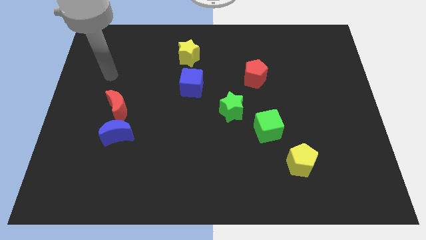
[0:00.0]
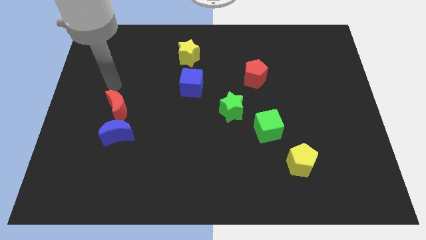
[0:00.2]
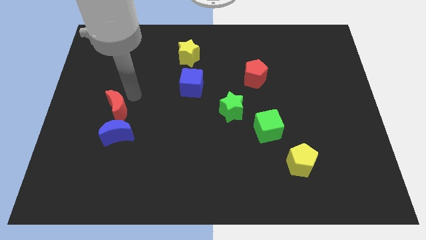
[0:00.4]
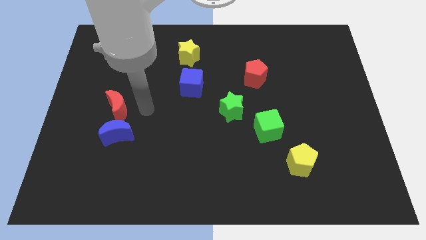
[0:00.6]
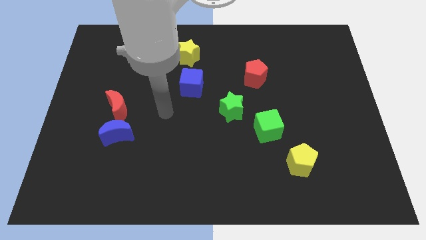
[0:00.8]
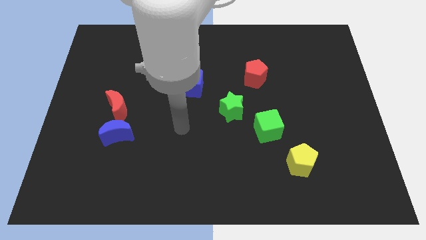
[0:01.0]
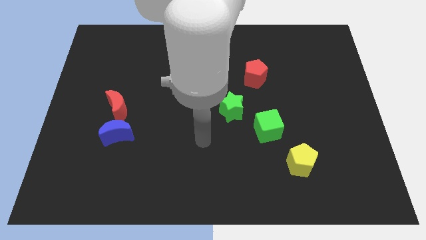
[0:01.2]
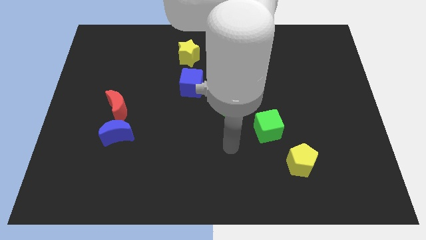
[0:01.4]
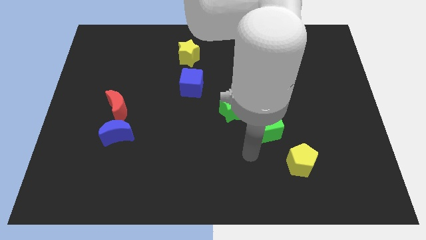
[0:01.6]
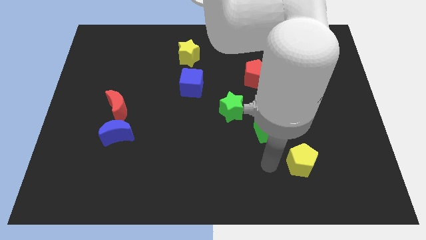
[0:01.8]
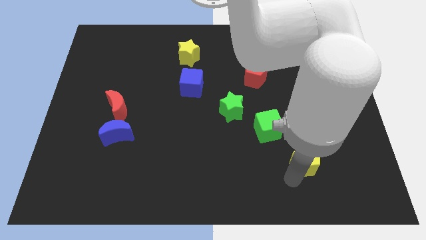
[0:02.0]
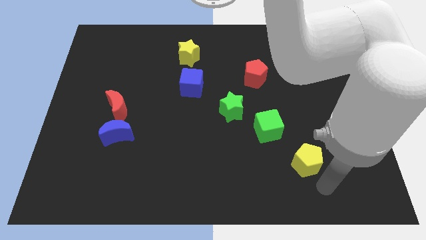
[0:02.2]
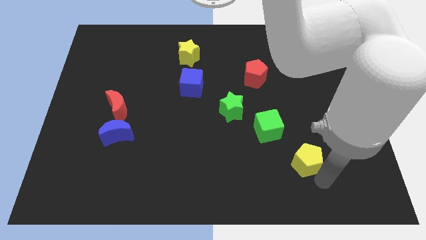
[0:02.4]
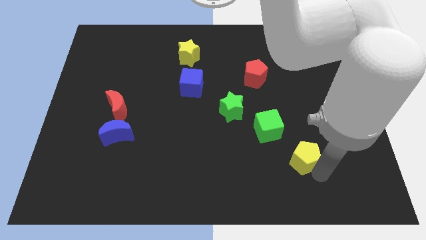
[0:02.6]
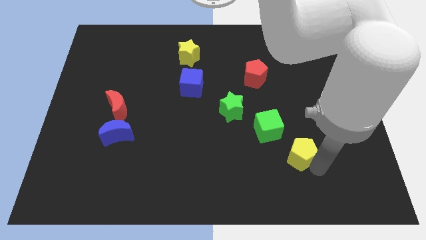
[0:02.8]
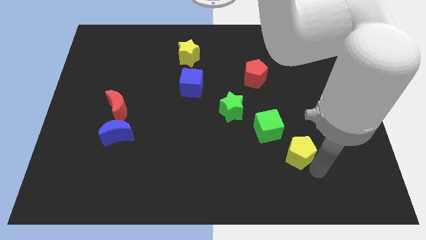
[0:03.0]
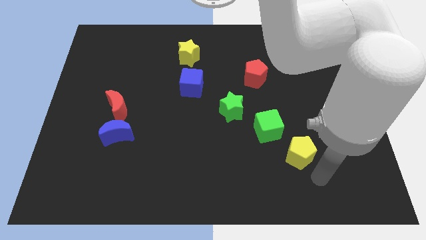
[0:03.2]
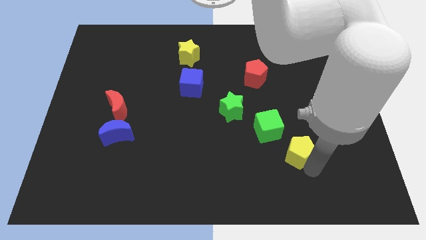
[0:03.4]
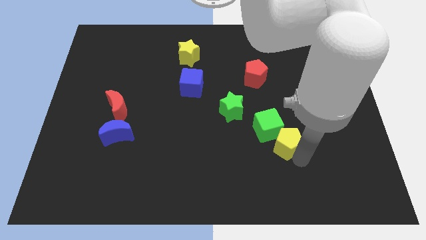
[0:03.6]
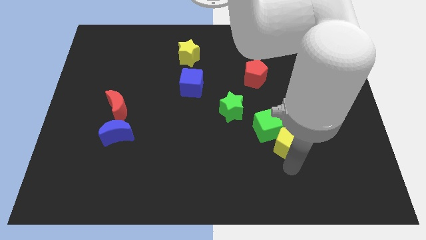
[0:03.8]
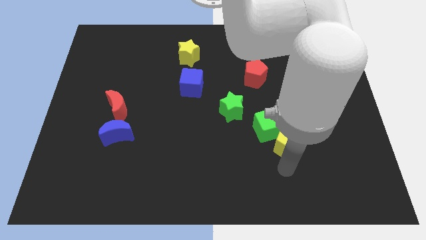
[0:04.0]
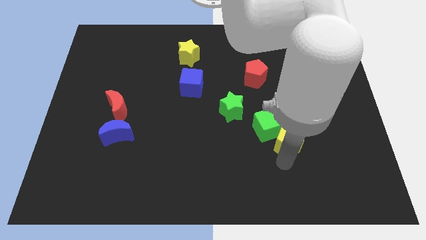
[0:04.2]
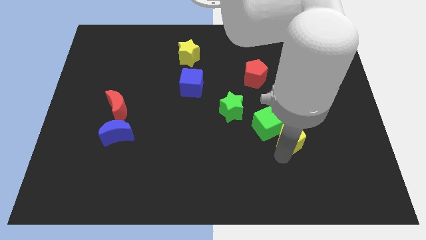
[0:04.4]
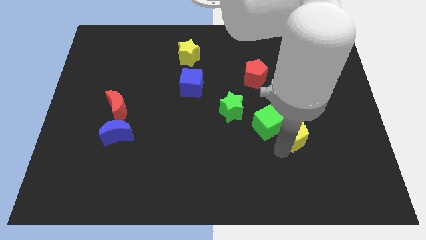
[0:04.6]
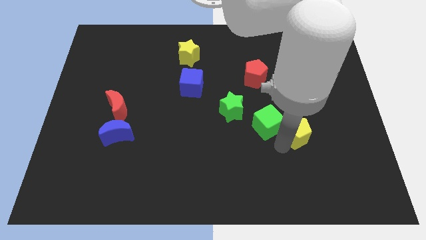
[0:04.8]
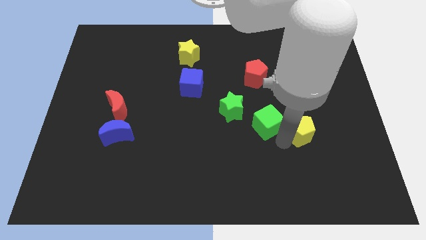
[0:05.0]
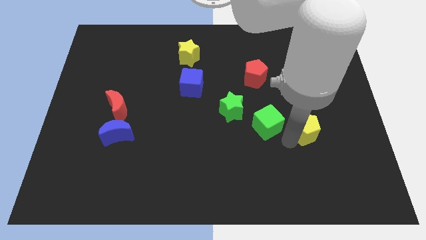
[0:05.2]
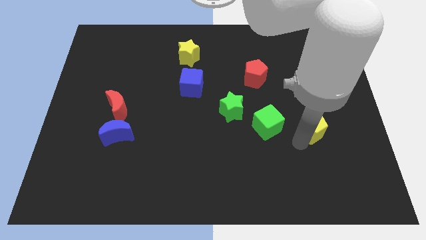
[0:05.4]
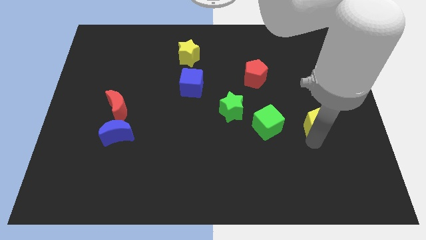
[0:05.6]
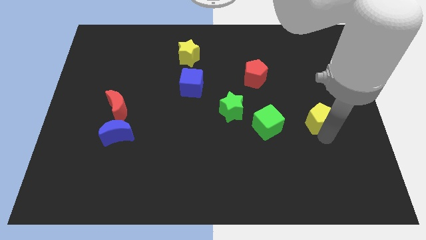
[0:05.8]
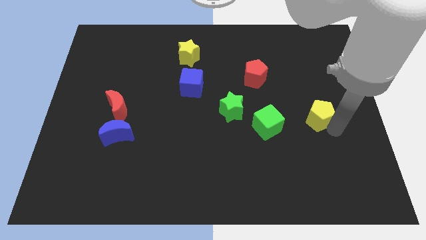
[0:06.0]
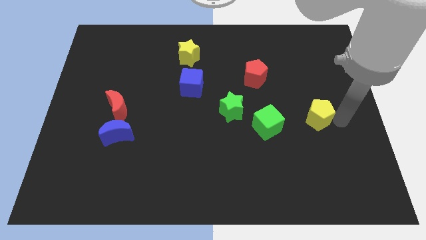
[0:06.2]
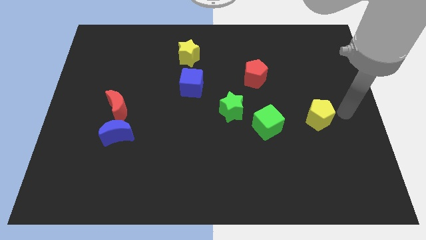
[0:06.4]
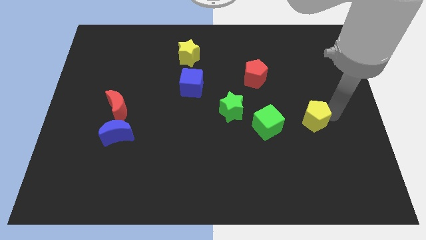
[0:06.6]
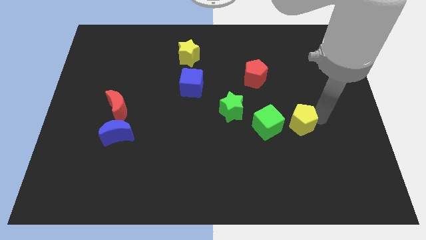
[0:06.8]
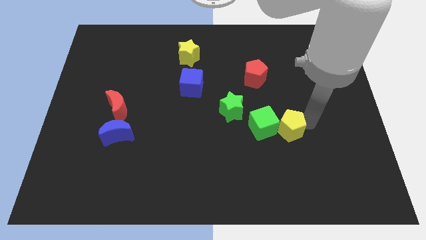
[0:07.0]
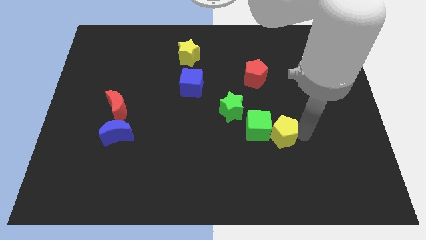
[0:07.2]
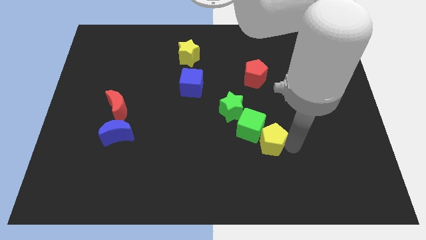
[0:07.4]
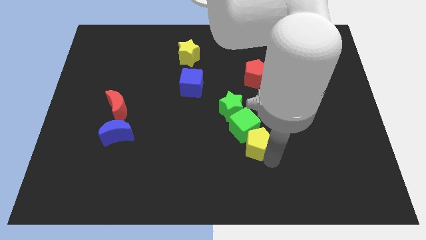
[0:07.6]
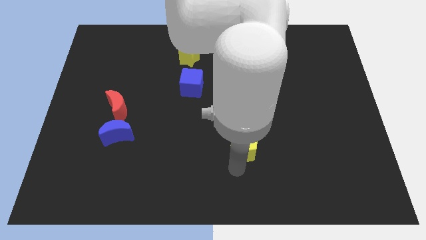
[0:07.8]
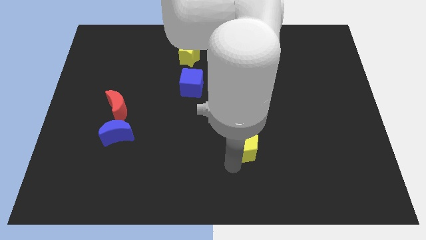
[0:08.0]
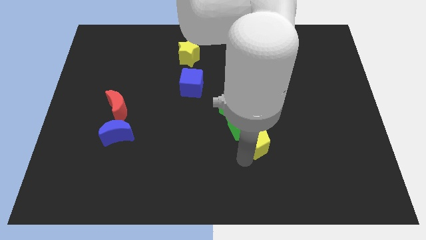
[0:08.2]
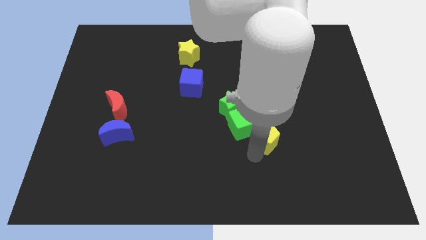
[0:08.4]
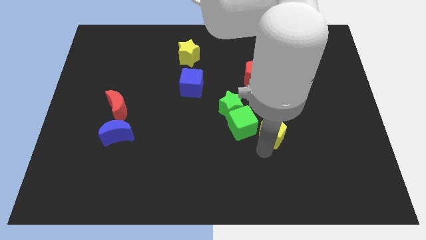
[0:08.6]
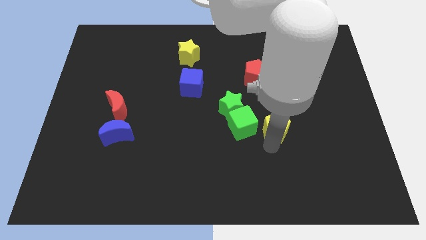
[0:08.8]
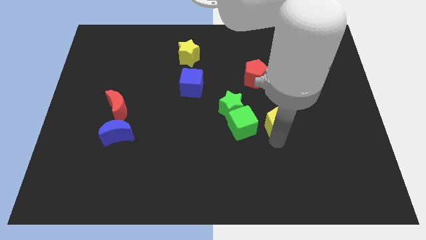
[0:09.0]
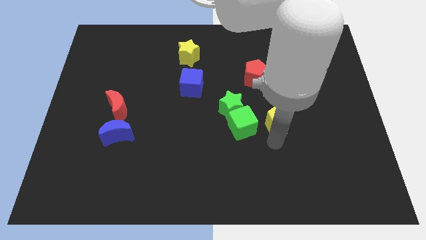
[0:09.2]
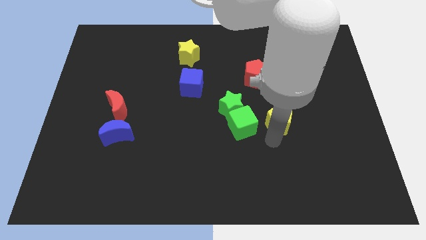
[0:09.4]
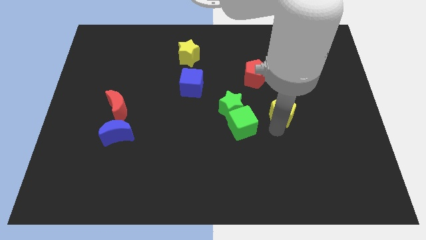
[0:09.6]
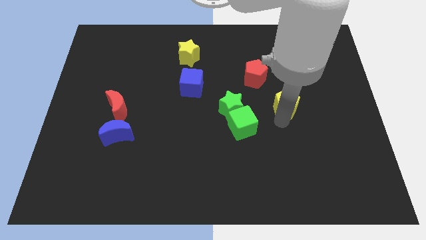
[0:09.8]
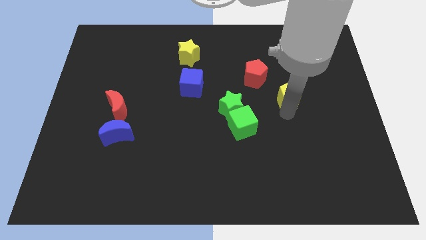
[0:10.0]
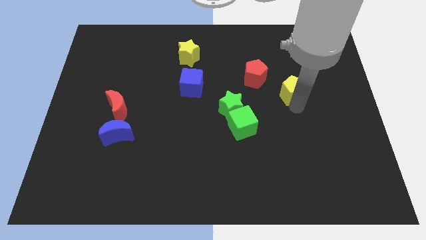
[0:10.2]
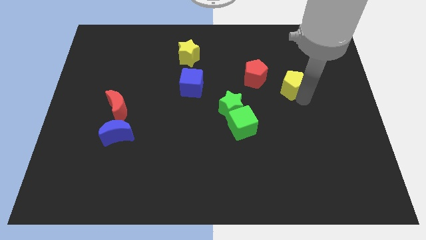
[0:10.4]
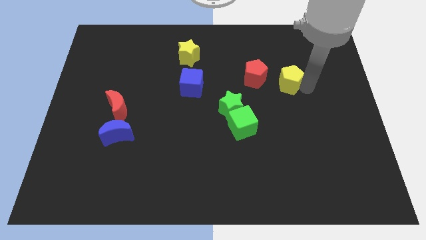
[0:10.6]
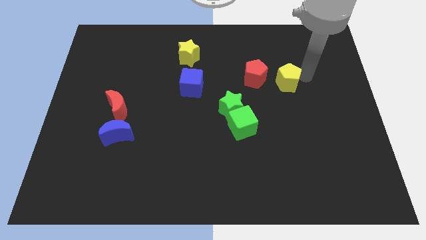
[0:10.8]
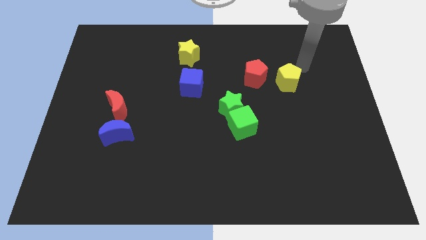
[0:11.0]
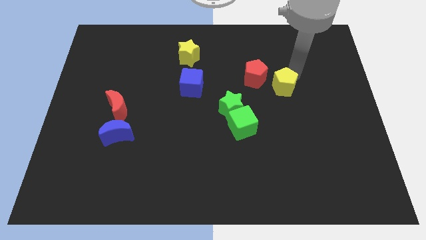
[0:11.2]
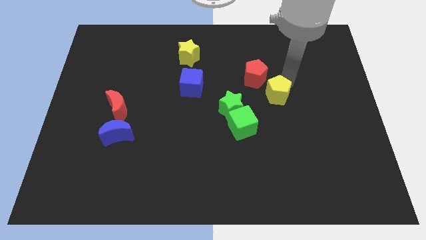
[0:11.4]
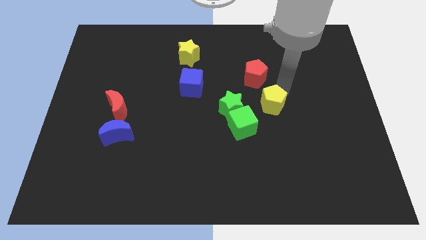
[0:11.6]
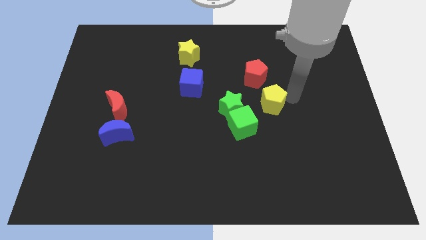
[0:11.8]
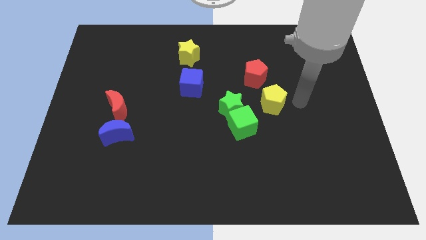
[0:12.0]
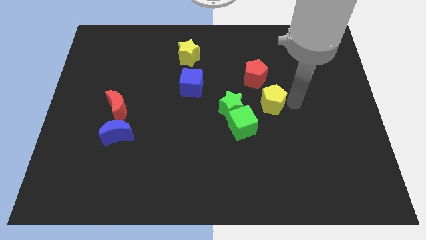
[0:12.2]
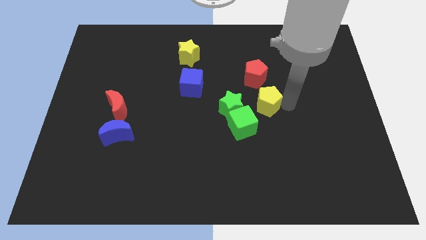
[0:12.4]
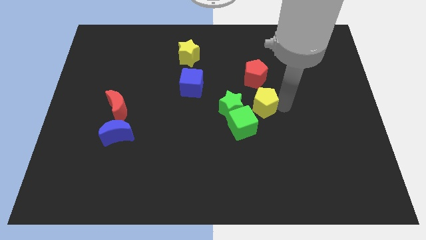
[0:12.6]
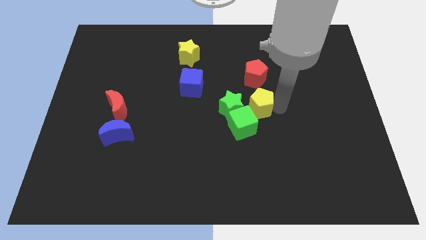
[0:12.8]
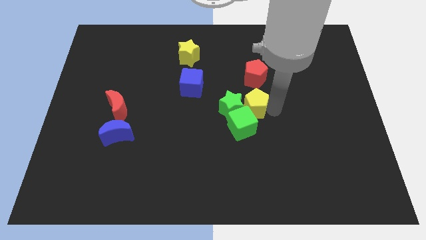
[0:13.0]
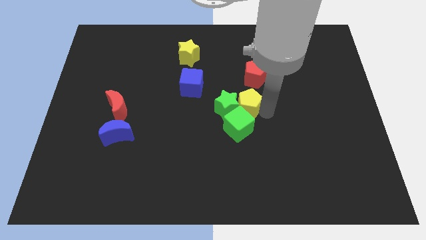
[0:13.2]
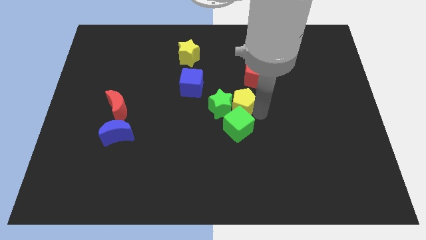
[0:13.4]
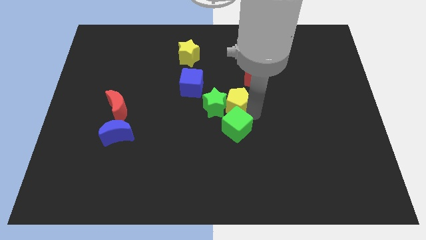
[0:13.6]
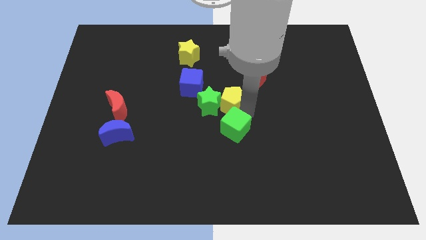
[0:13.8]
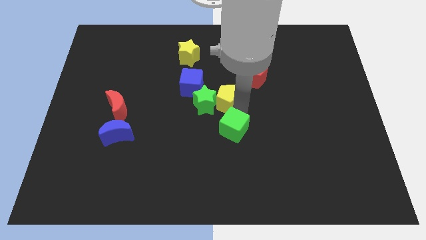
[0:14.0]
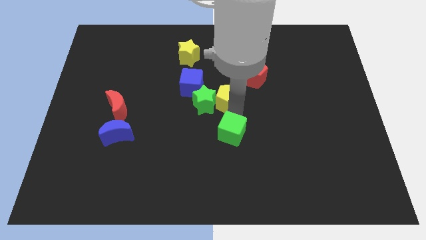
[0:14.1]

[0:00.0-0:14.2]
move the yellow pentagon to the right side of the blue cube
